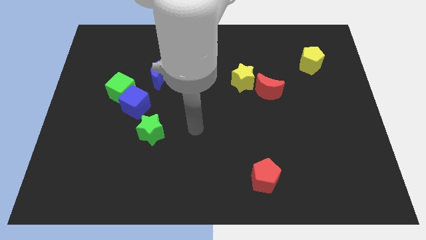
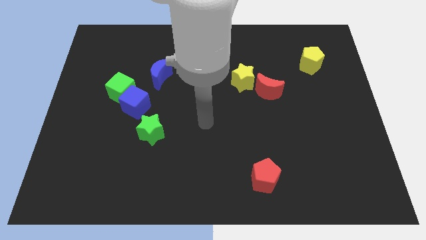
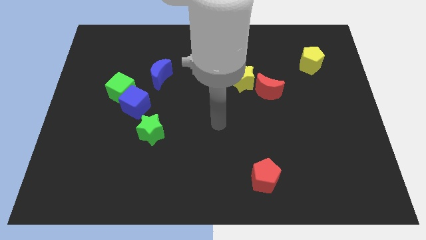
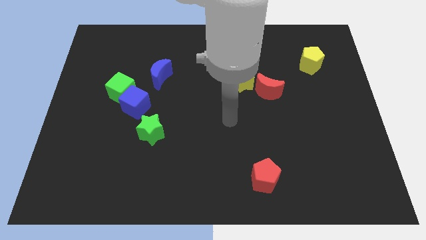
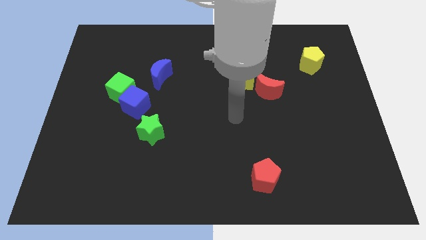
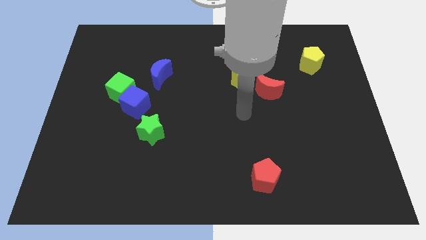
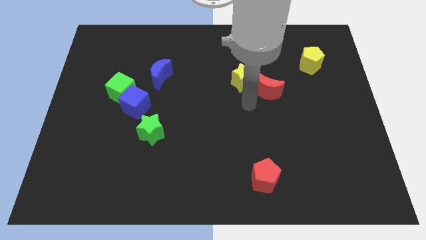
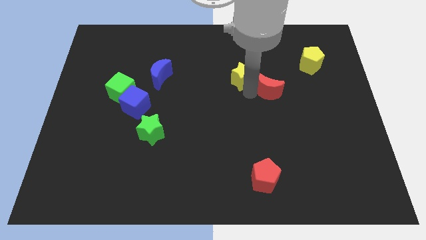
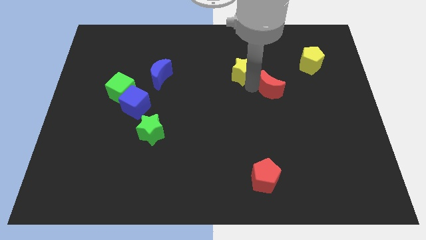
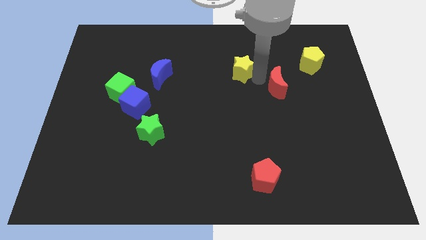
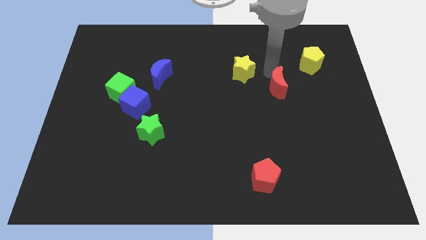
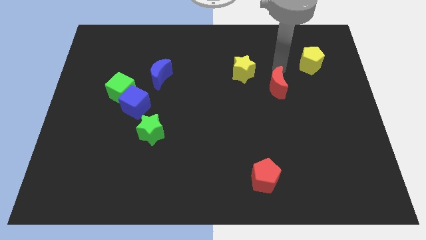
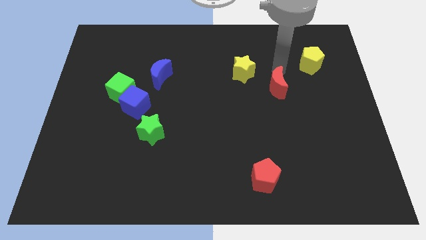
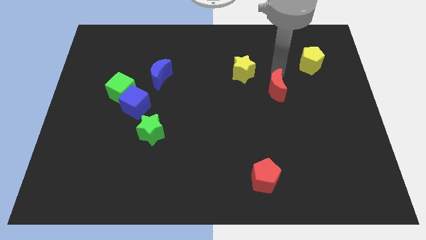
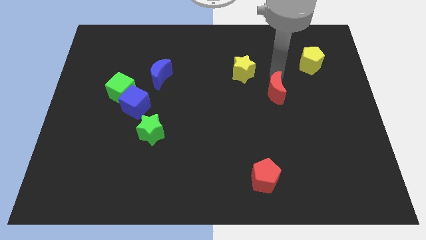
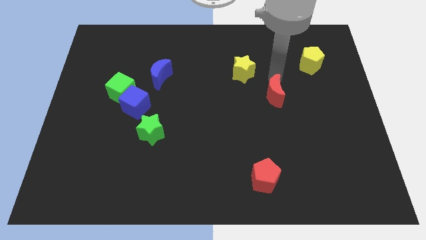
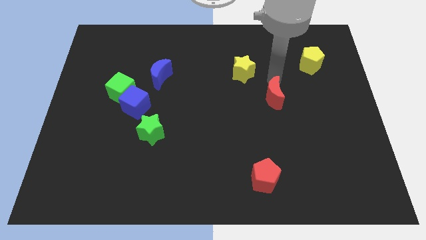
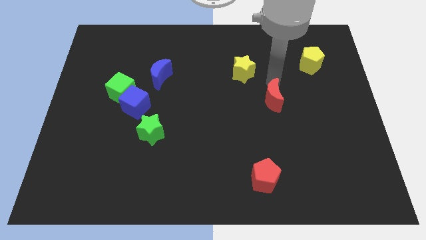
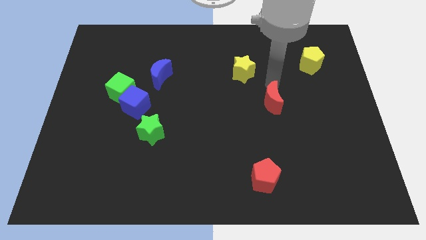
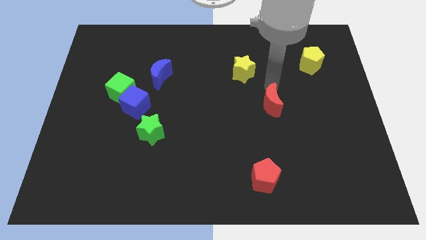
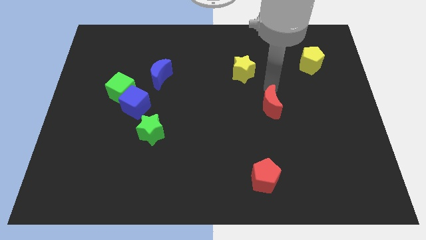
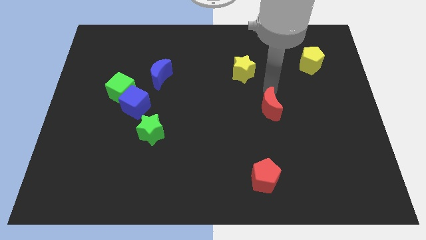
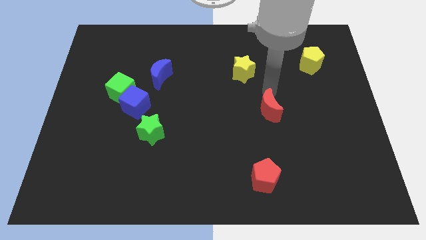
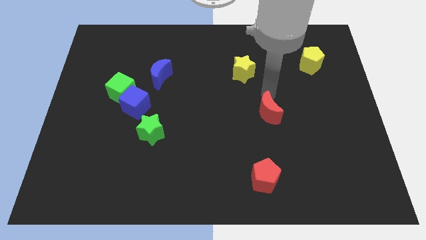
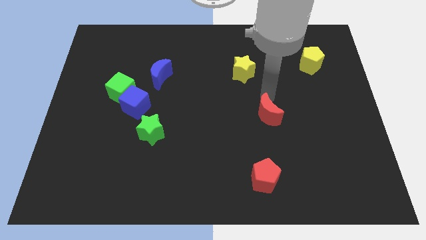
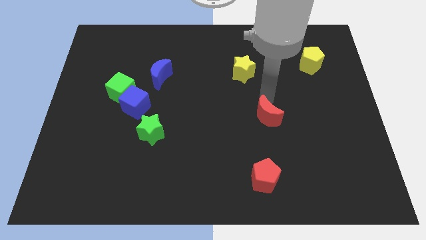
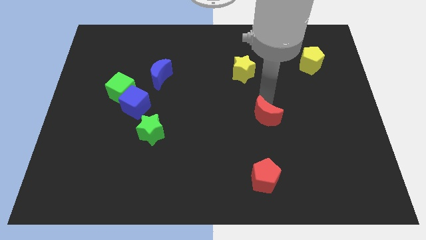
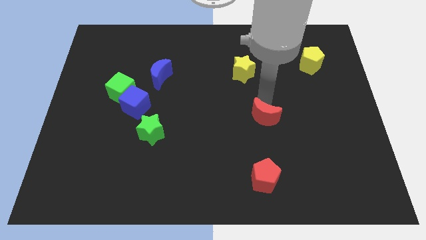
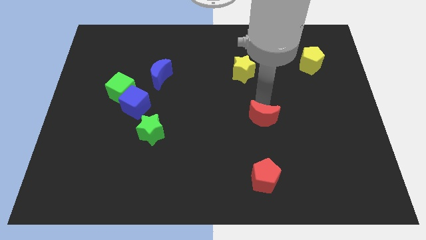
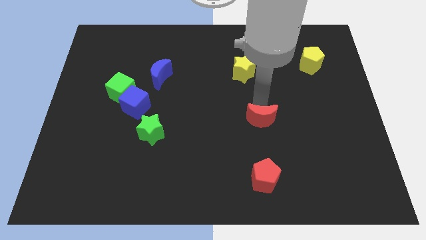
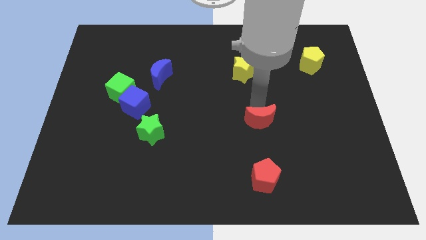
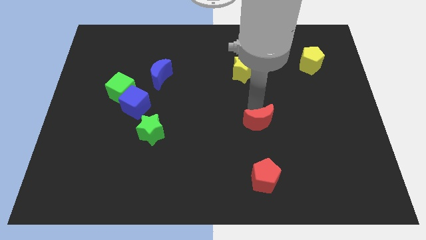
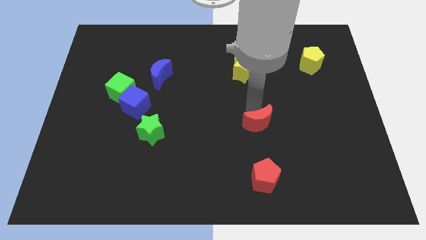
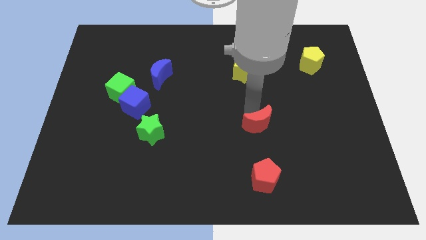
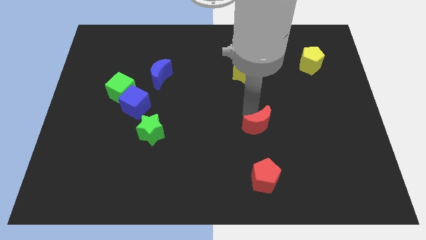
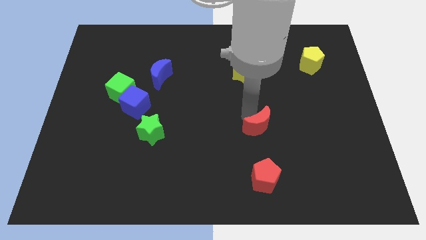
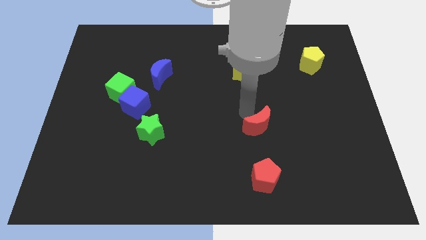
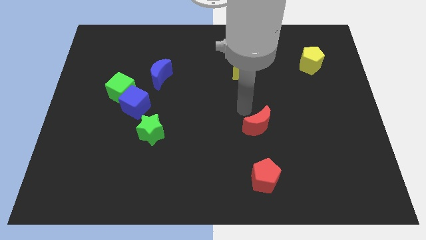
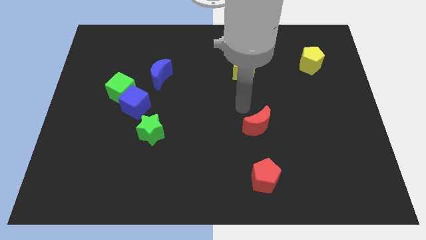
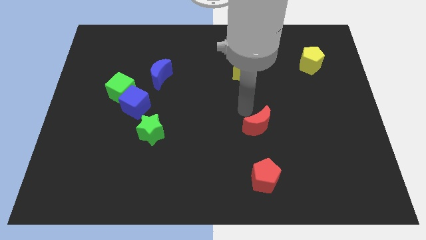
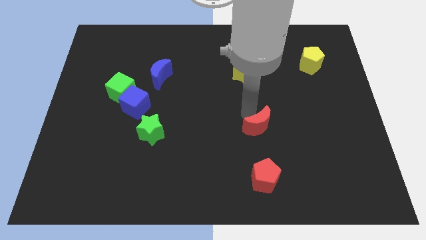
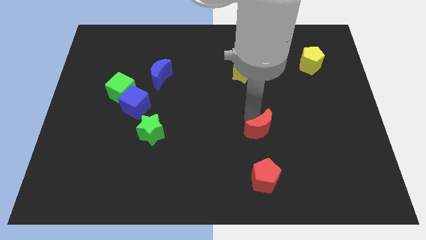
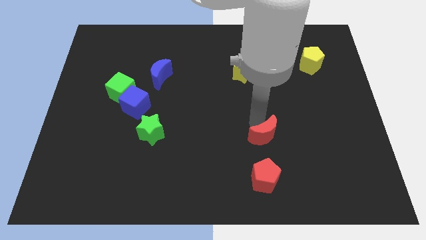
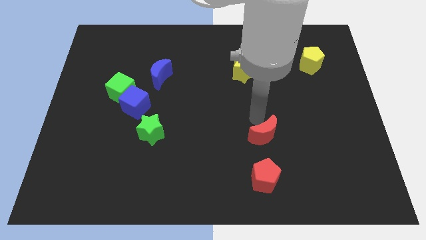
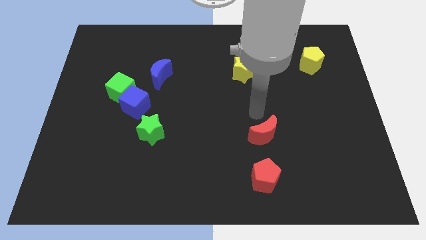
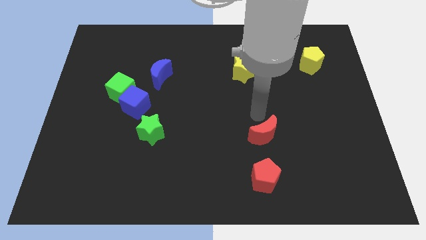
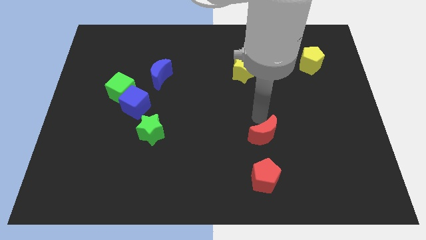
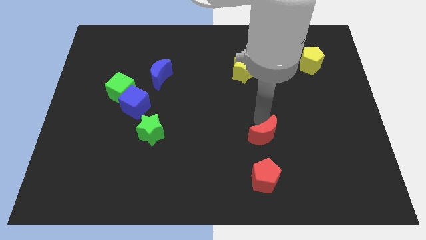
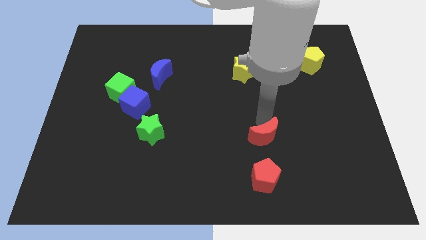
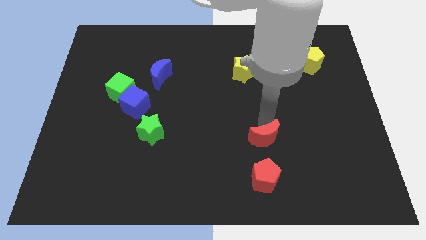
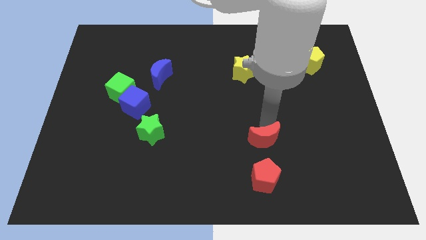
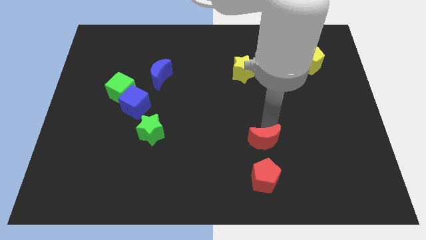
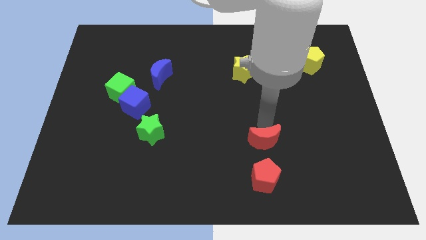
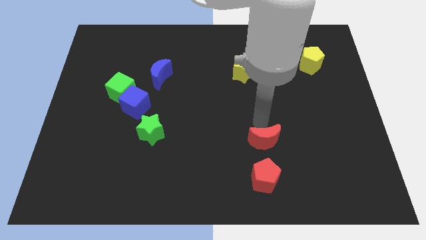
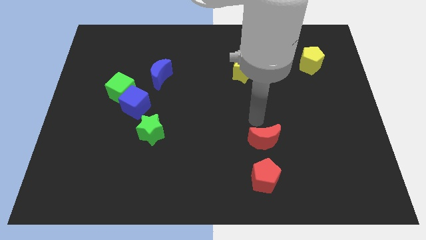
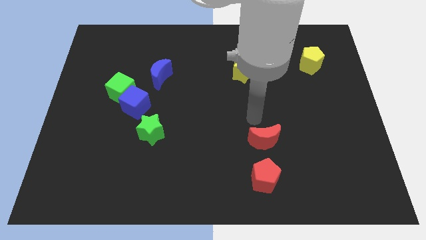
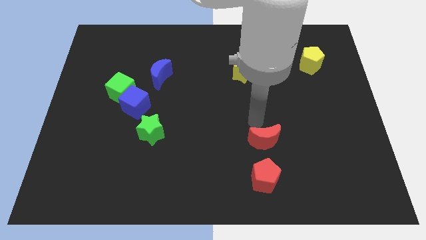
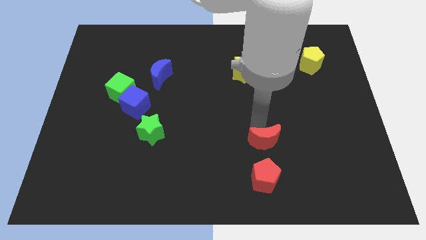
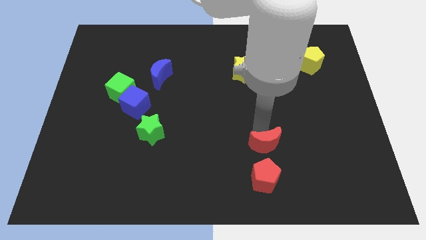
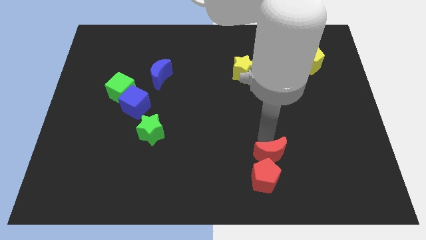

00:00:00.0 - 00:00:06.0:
put the red moon towards the red pentagon

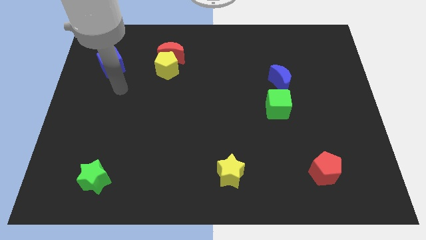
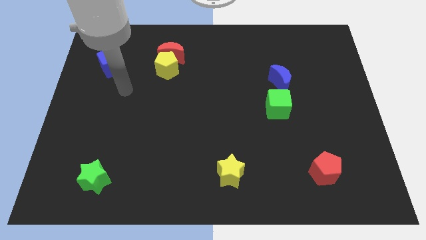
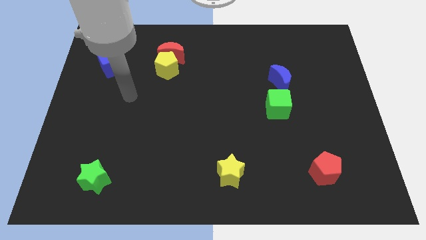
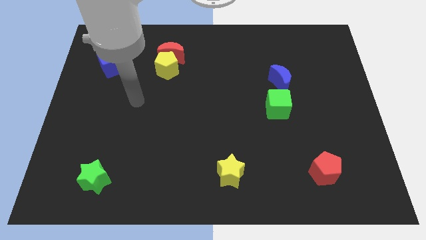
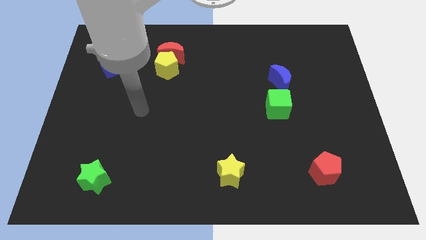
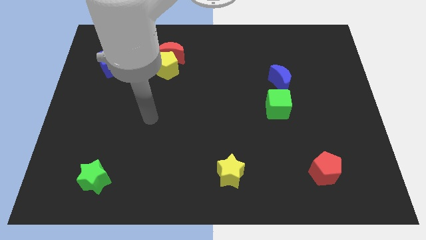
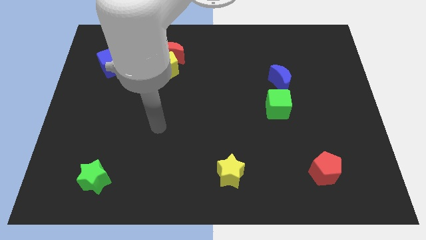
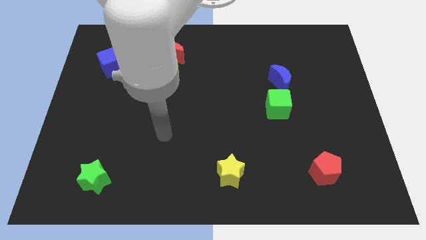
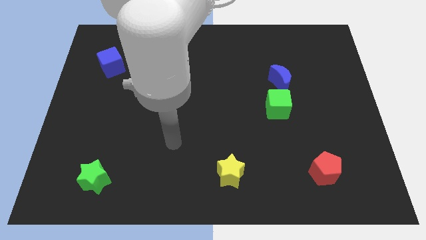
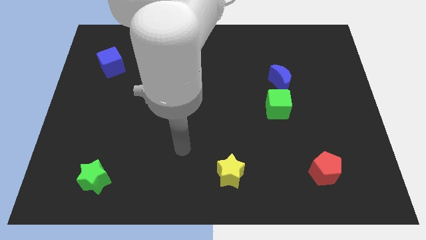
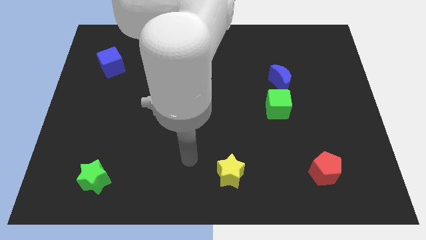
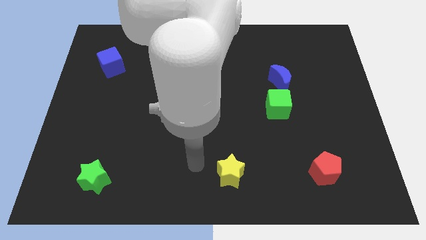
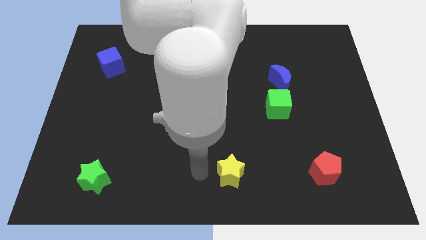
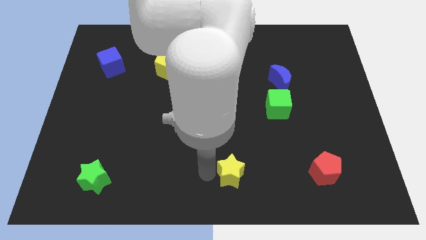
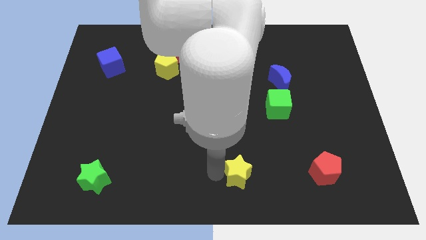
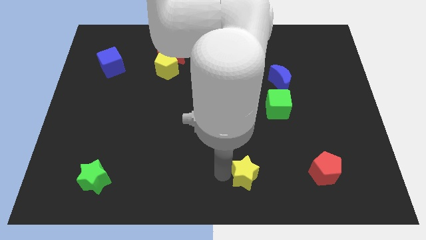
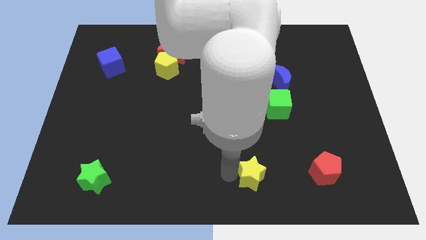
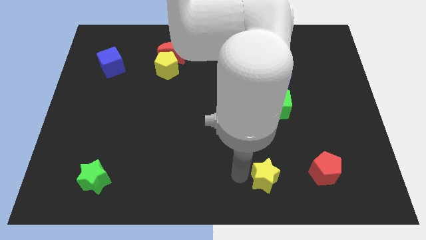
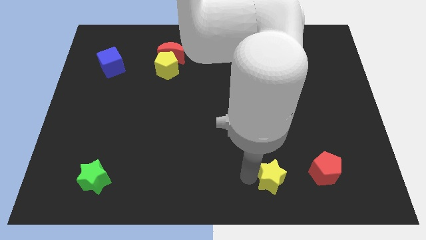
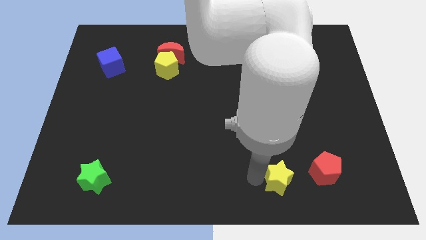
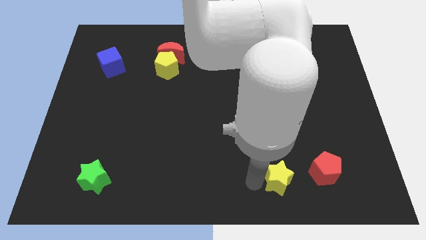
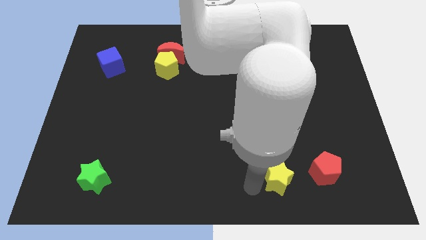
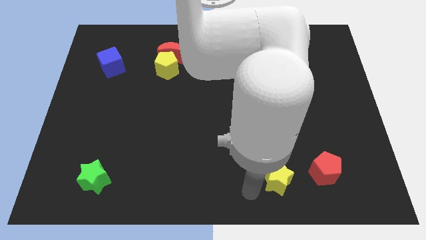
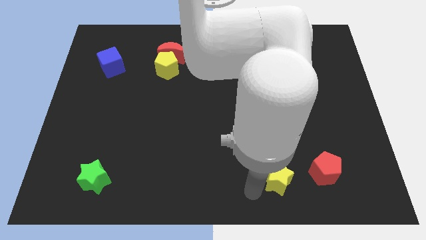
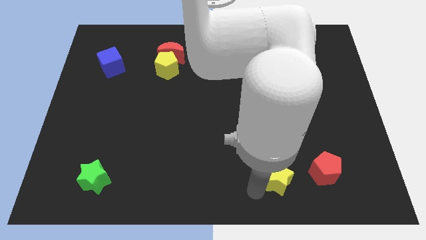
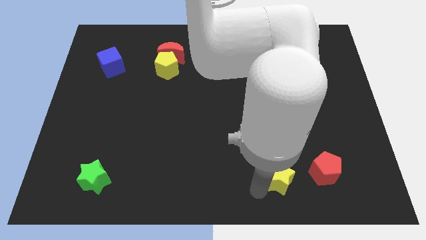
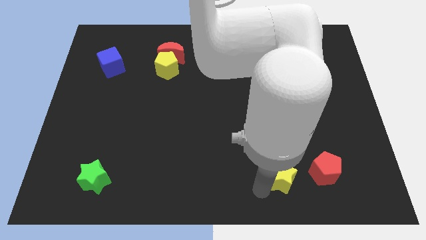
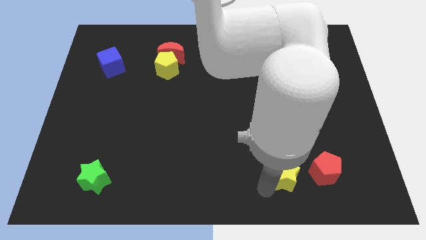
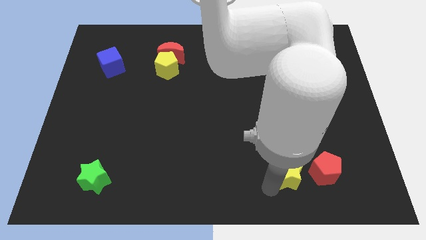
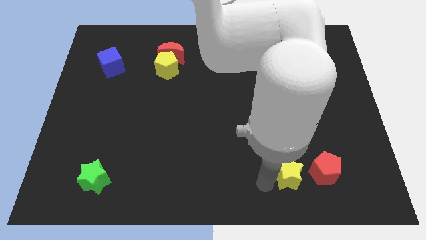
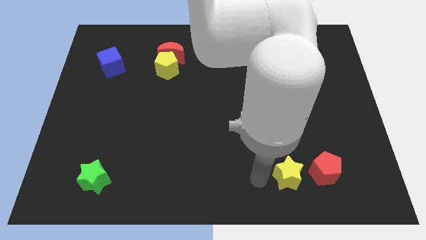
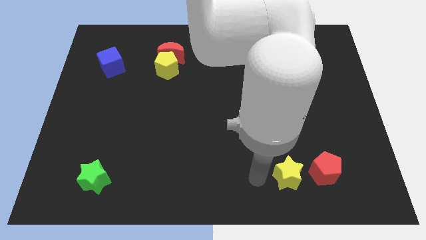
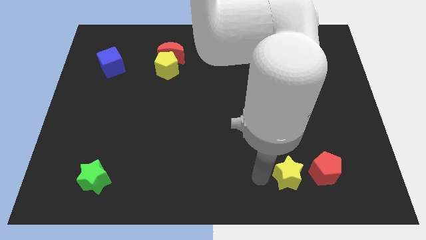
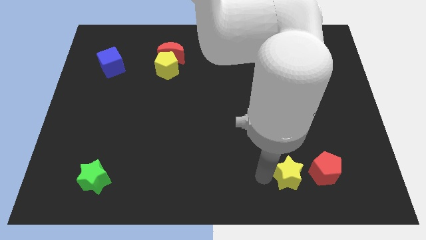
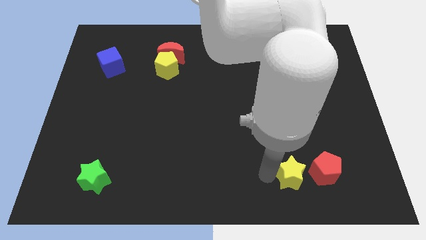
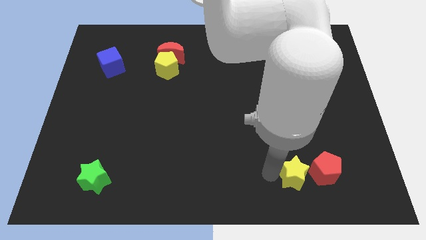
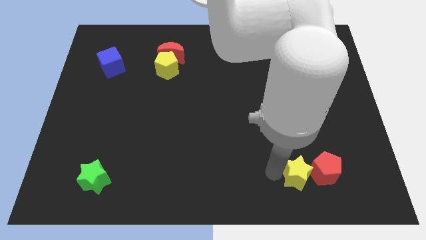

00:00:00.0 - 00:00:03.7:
move the yellow star to the red pentagon
